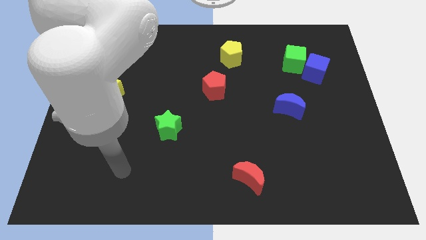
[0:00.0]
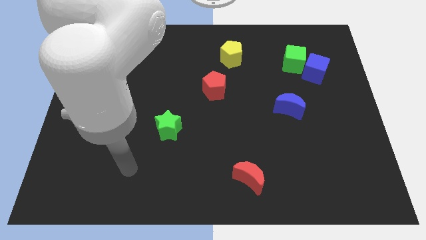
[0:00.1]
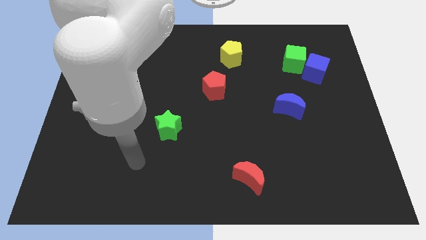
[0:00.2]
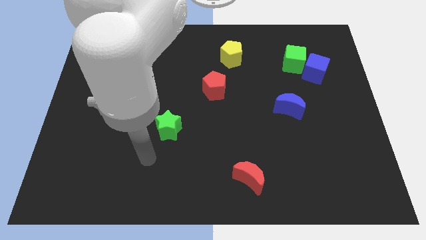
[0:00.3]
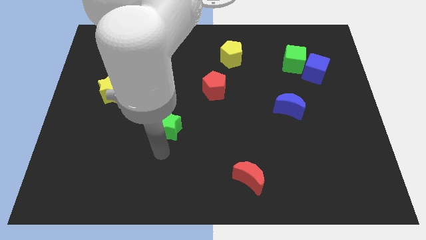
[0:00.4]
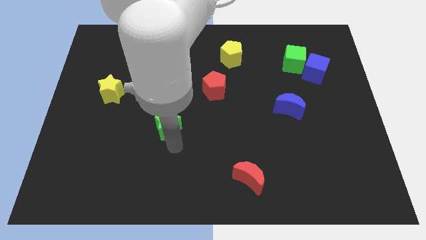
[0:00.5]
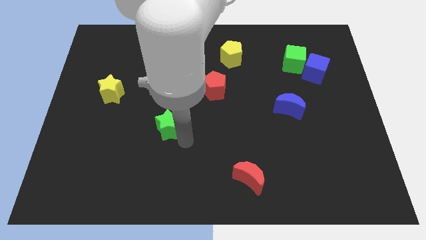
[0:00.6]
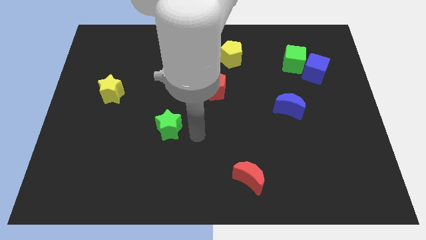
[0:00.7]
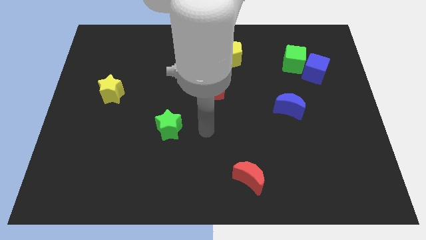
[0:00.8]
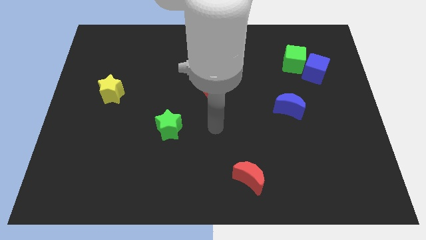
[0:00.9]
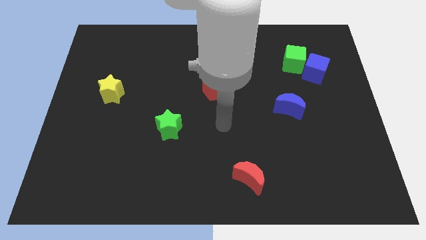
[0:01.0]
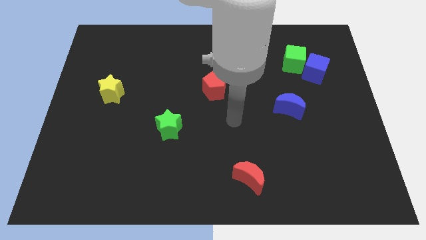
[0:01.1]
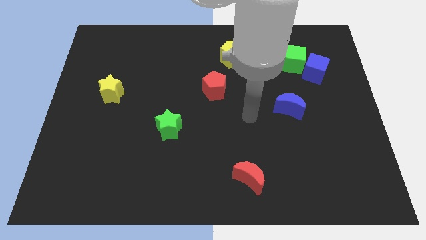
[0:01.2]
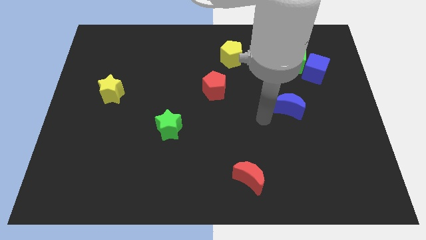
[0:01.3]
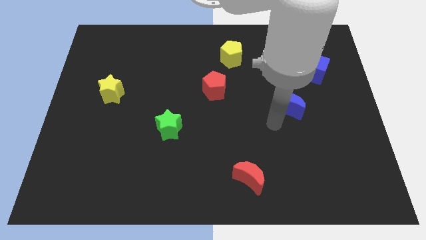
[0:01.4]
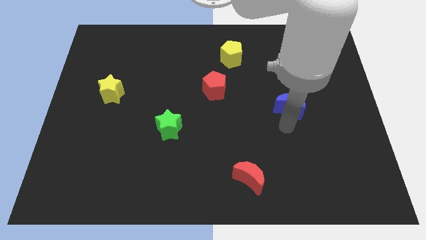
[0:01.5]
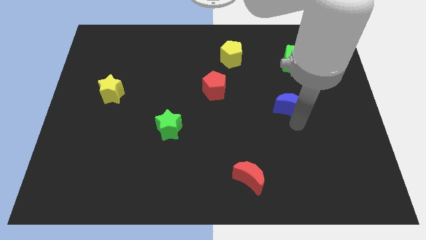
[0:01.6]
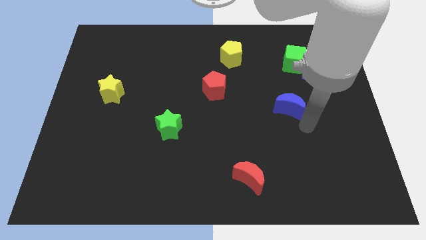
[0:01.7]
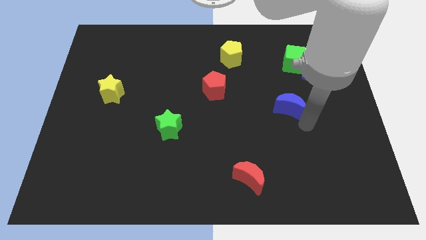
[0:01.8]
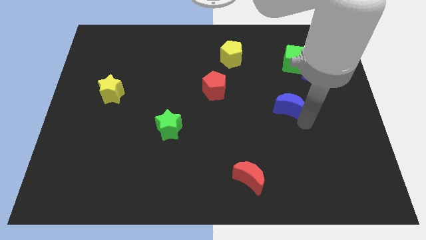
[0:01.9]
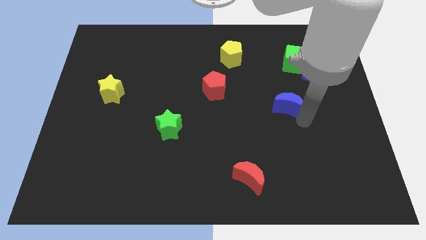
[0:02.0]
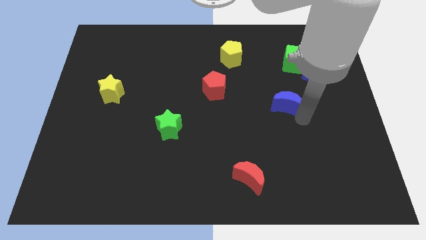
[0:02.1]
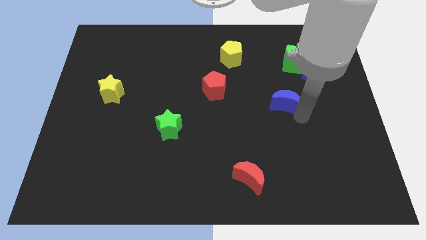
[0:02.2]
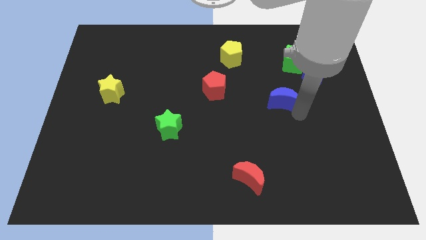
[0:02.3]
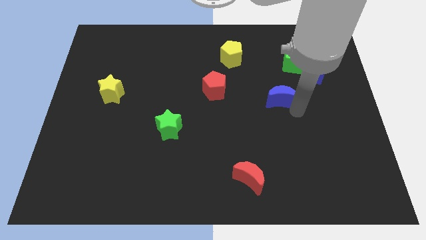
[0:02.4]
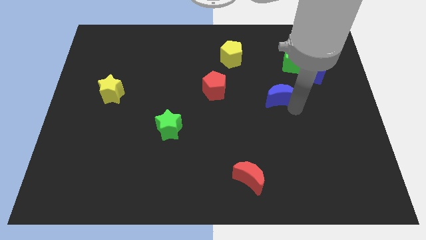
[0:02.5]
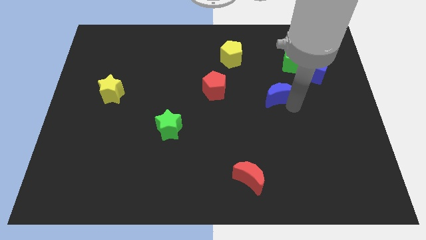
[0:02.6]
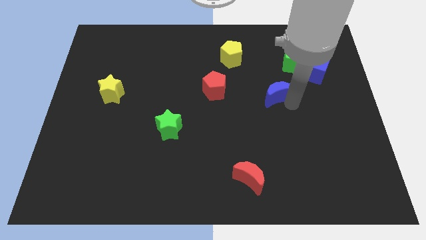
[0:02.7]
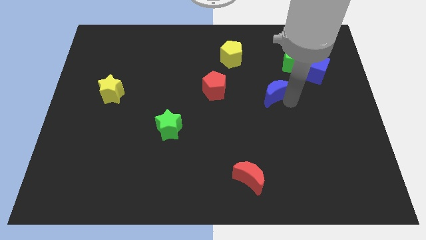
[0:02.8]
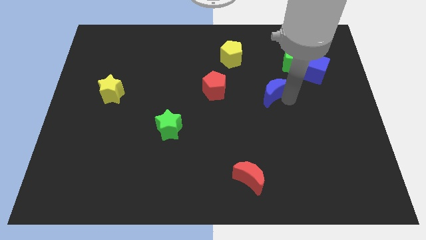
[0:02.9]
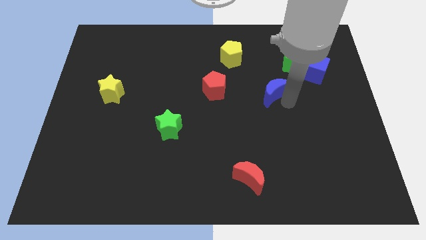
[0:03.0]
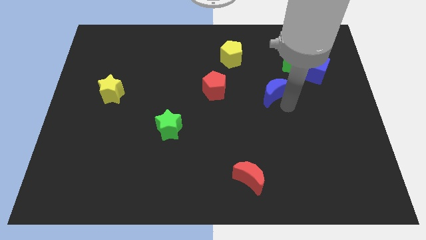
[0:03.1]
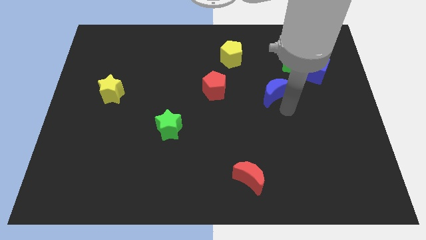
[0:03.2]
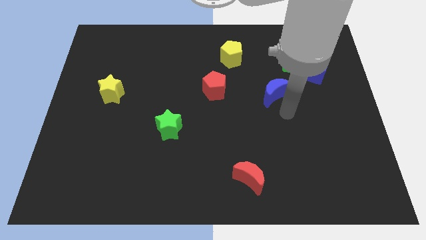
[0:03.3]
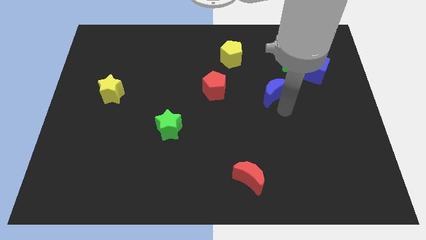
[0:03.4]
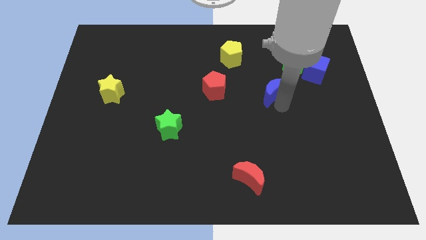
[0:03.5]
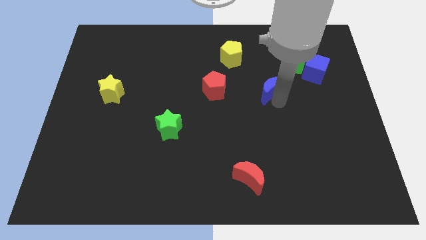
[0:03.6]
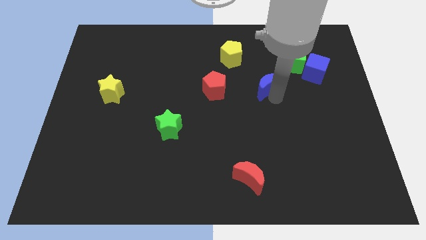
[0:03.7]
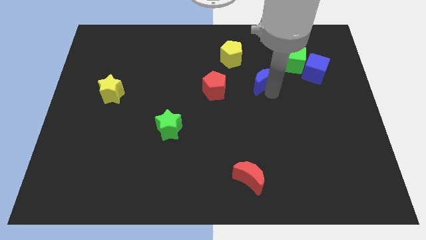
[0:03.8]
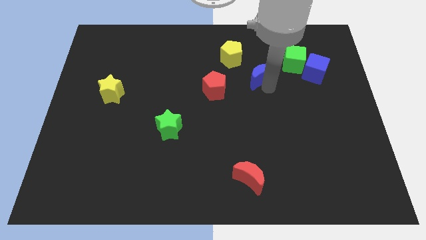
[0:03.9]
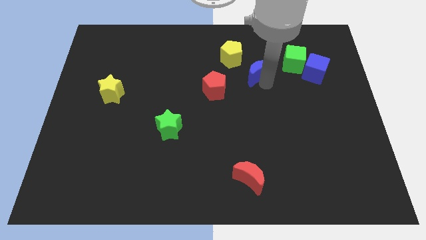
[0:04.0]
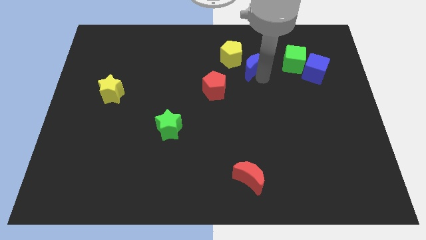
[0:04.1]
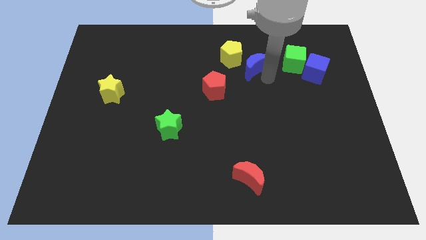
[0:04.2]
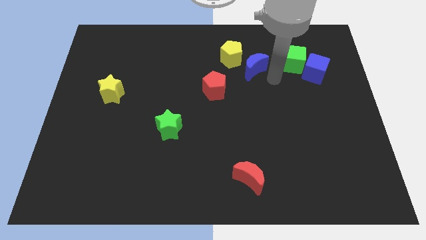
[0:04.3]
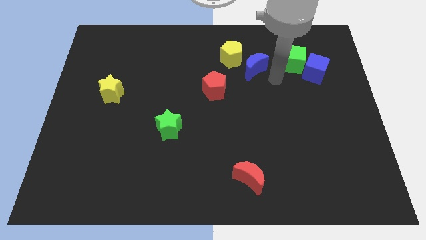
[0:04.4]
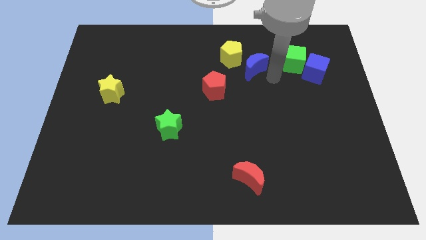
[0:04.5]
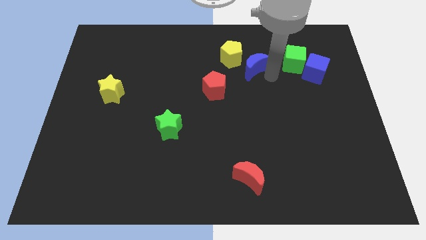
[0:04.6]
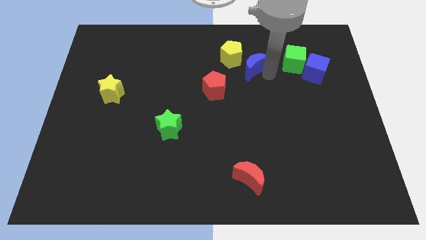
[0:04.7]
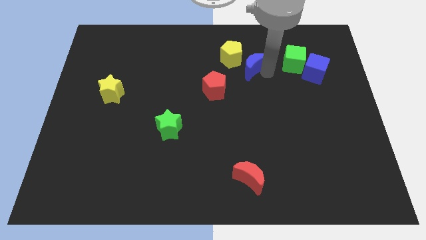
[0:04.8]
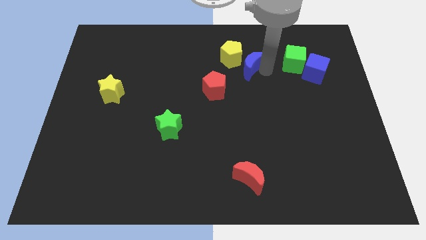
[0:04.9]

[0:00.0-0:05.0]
move the blue moon close to the yellow pentagon

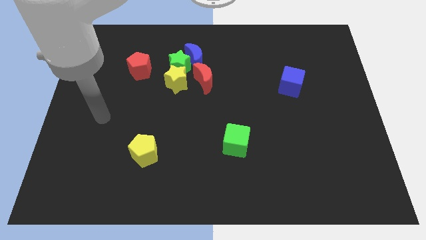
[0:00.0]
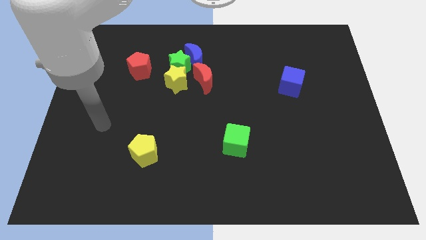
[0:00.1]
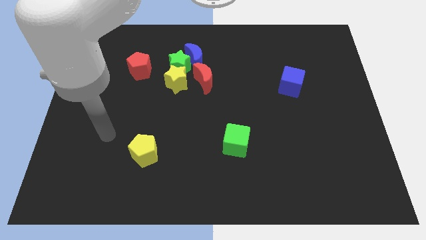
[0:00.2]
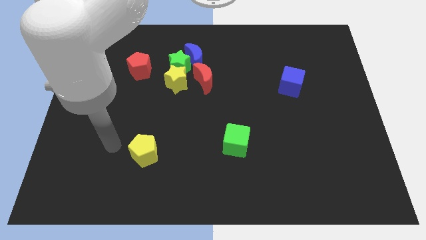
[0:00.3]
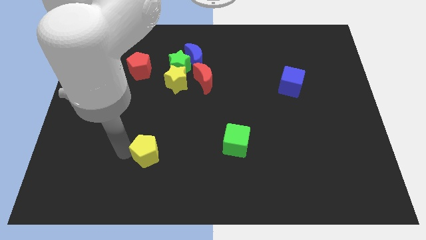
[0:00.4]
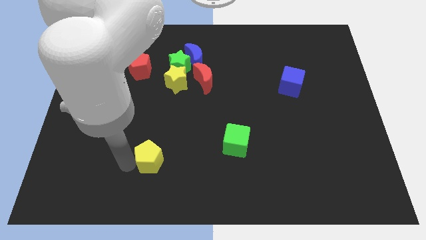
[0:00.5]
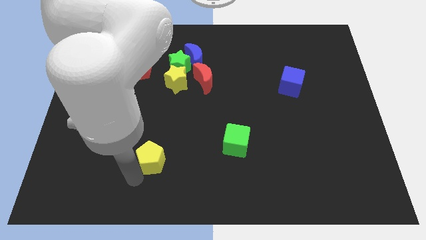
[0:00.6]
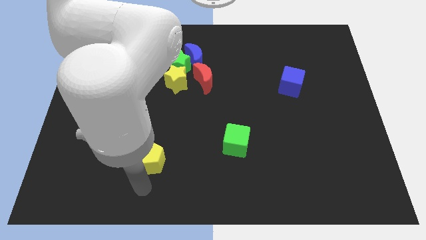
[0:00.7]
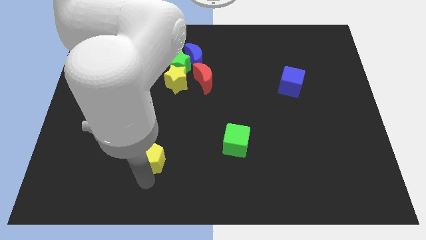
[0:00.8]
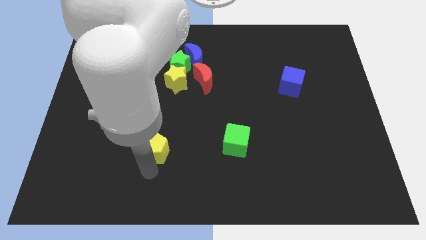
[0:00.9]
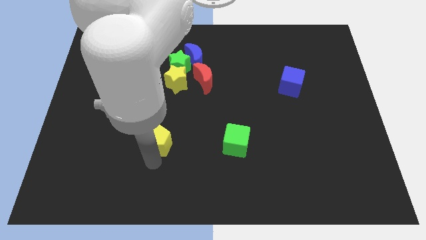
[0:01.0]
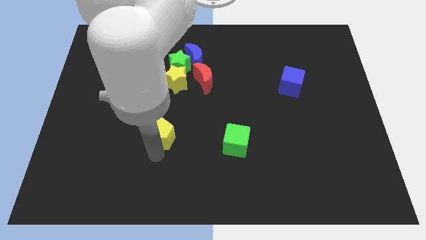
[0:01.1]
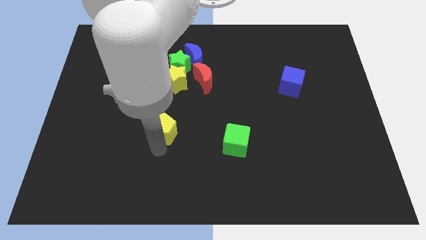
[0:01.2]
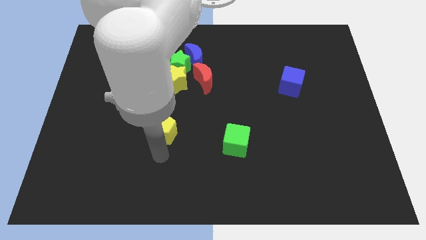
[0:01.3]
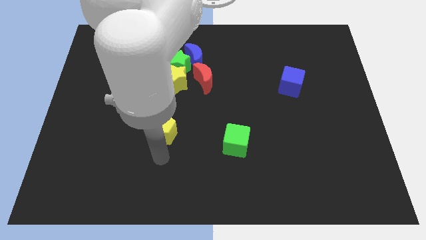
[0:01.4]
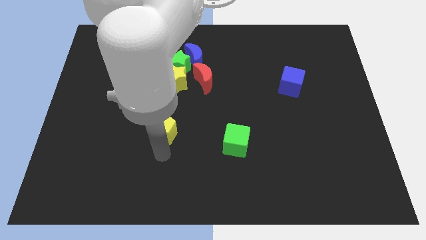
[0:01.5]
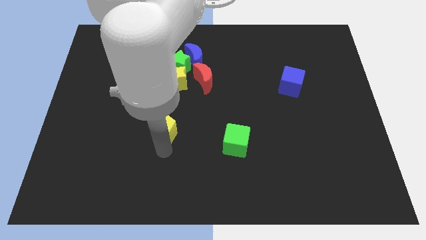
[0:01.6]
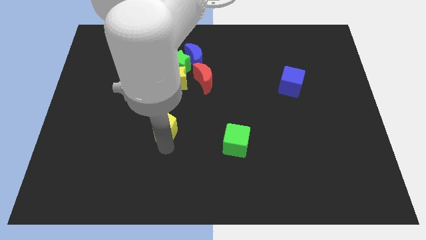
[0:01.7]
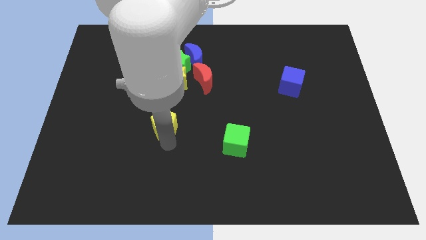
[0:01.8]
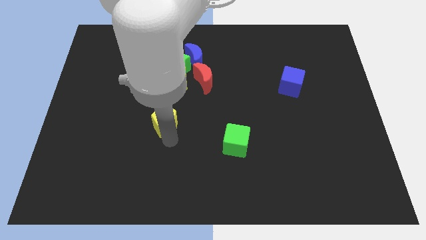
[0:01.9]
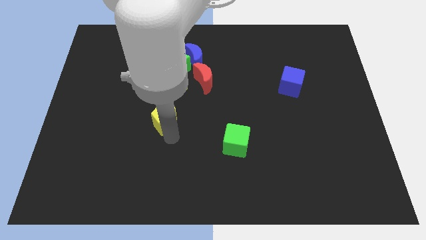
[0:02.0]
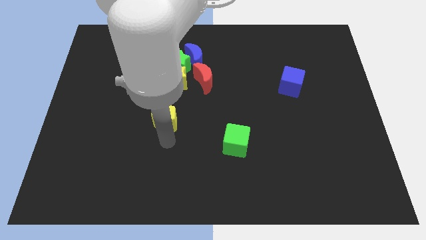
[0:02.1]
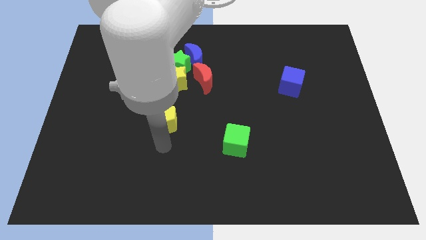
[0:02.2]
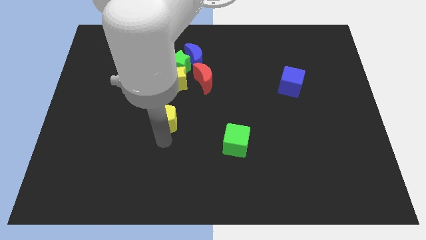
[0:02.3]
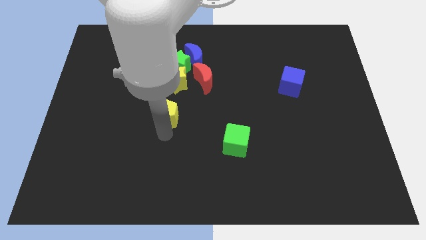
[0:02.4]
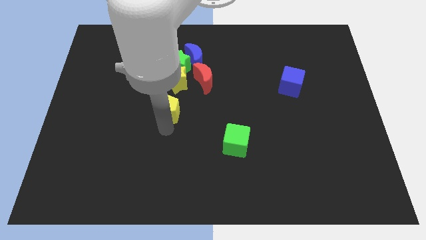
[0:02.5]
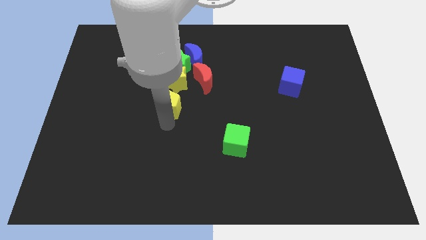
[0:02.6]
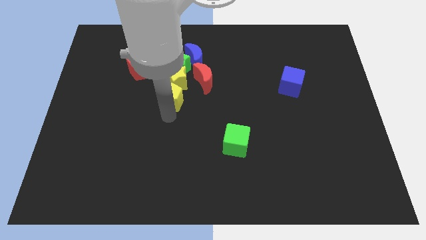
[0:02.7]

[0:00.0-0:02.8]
move the yellow pentagon close to the yellow star
